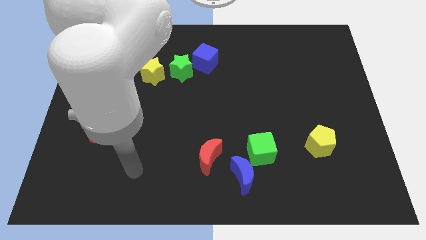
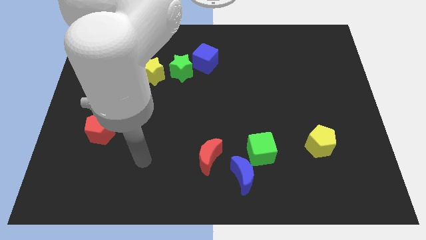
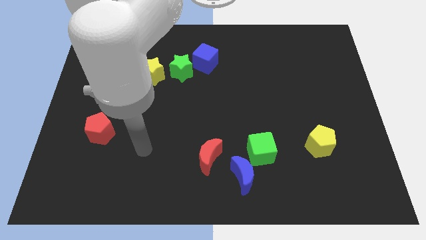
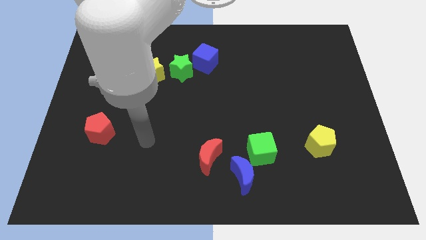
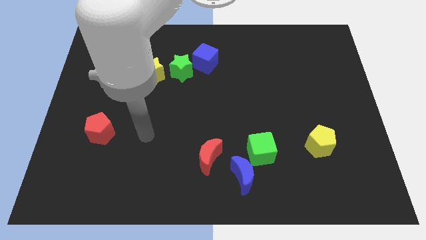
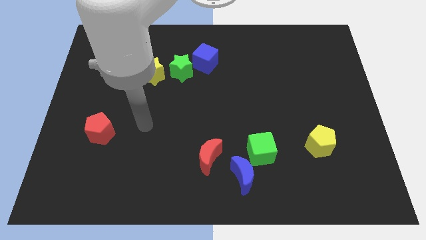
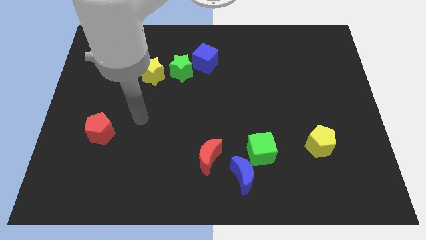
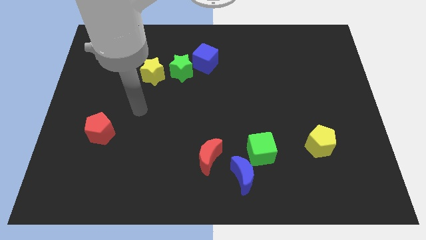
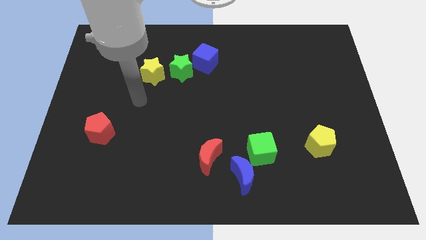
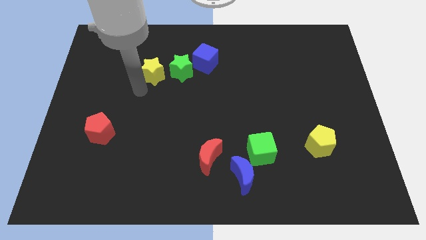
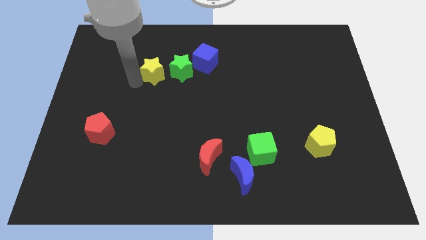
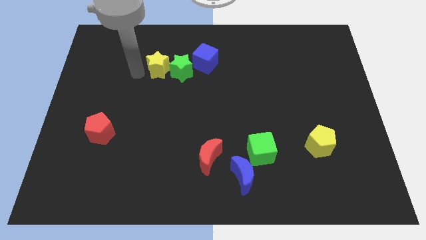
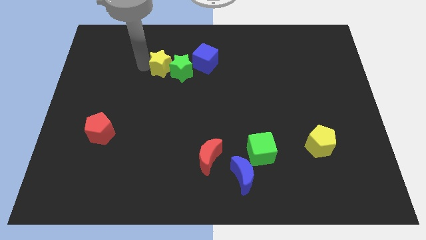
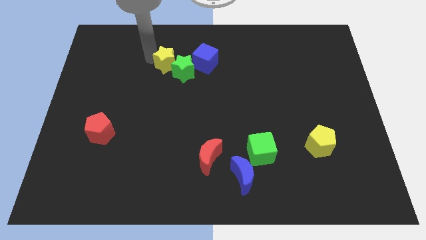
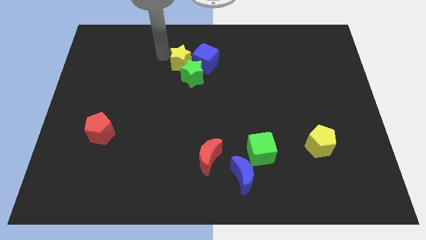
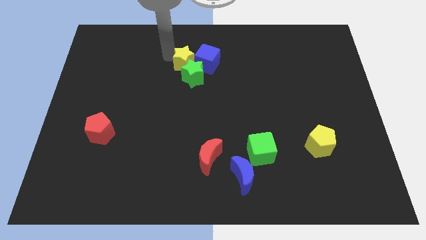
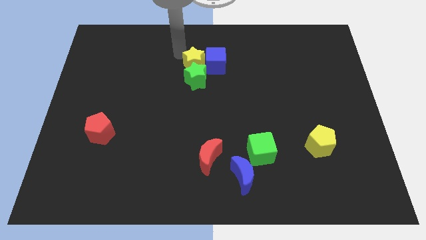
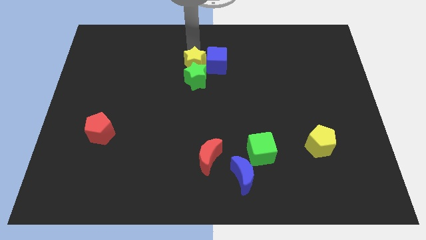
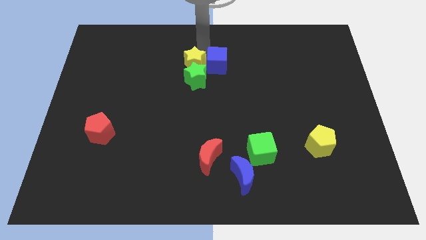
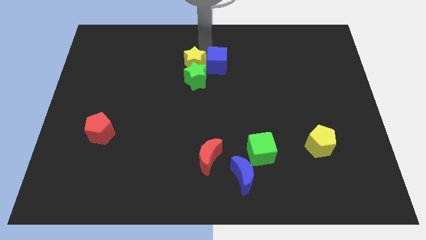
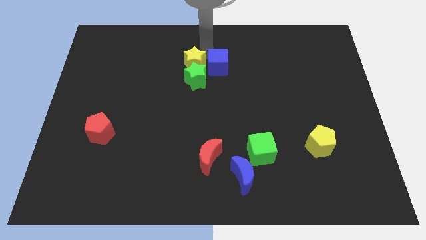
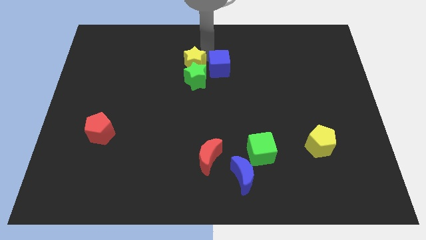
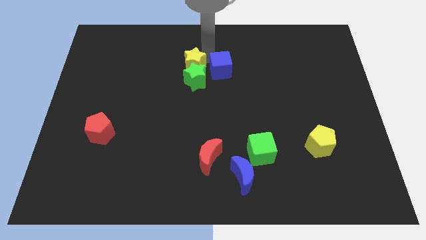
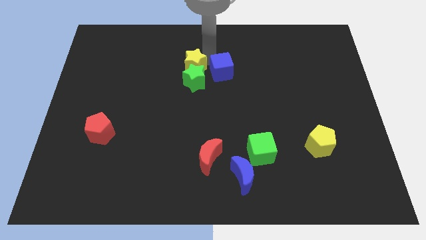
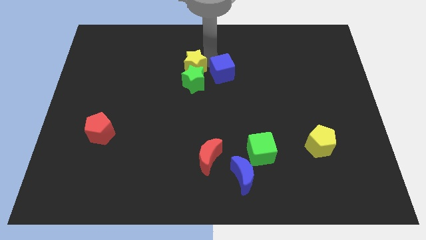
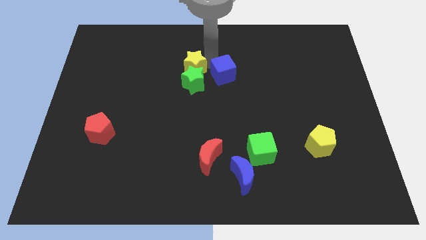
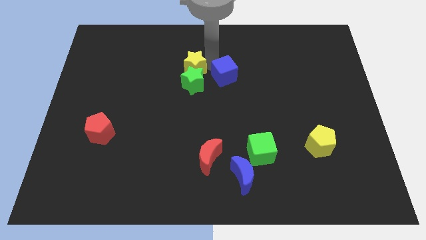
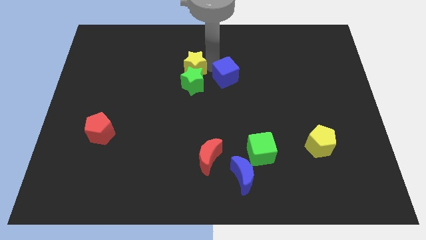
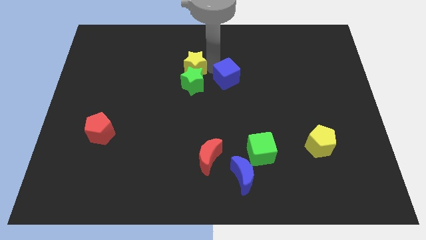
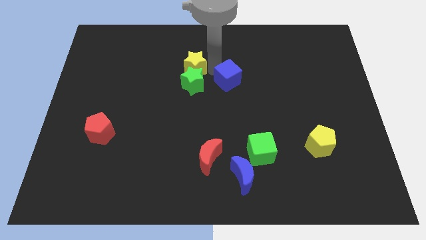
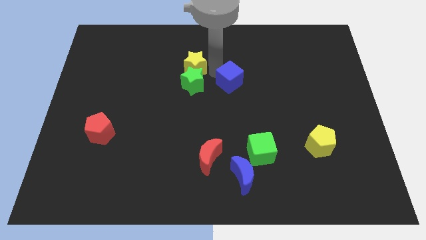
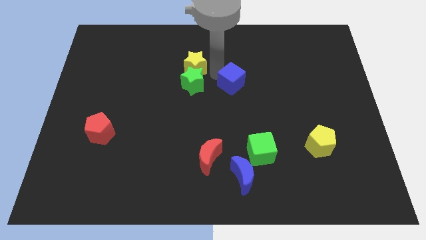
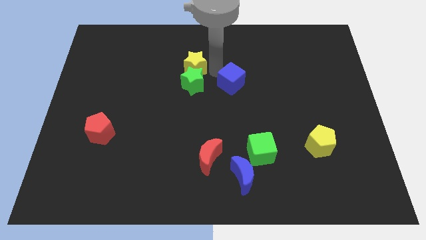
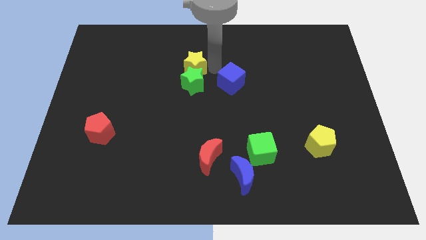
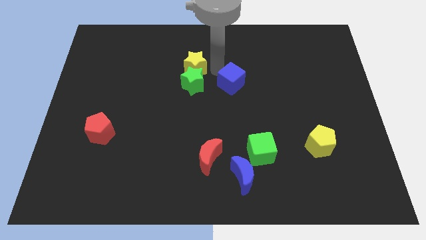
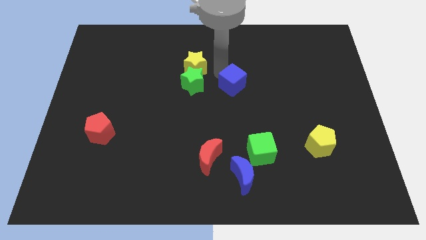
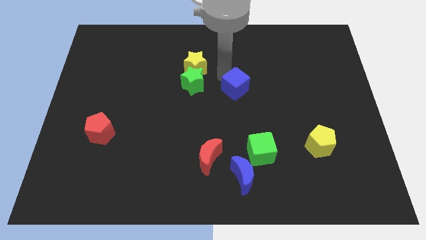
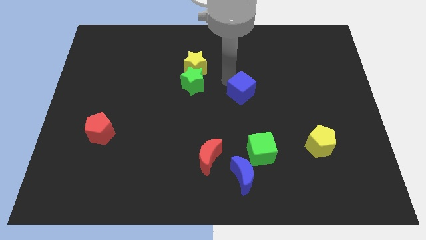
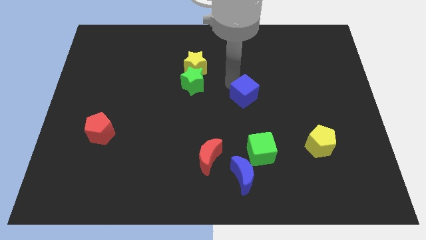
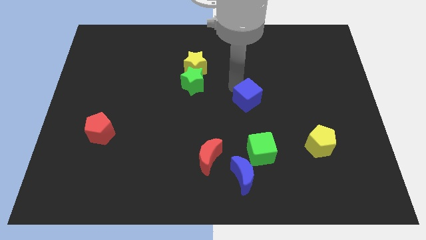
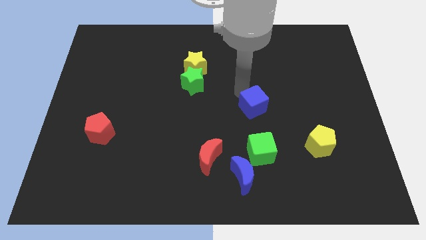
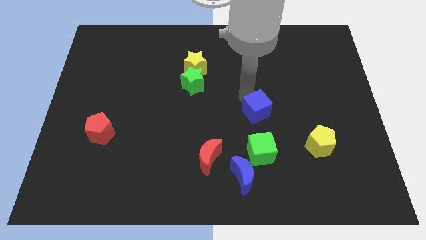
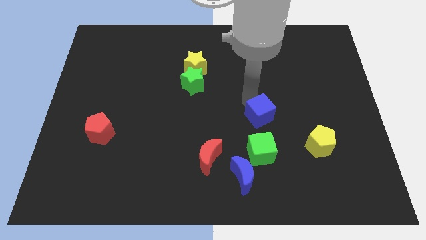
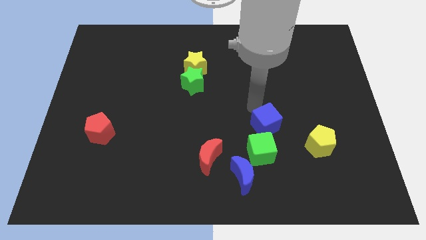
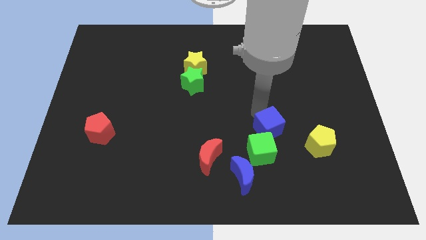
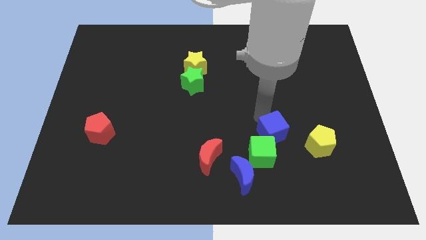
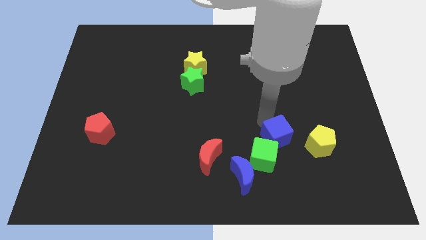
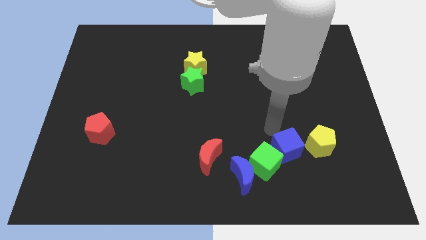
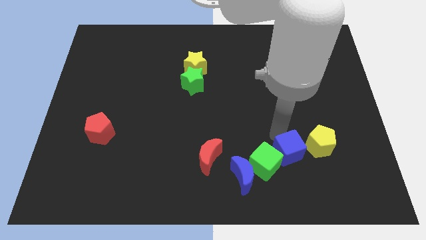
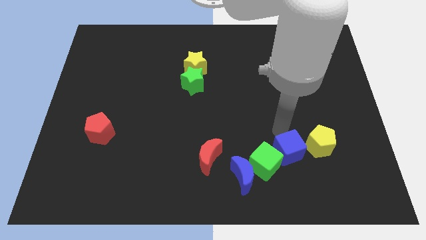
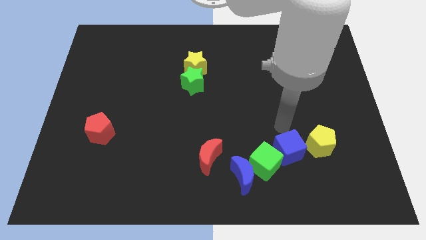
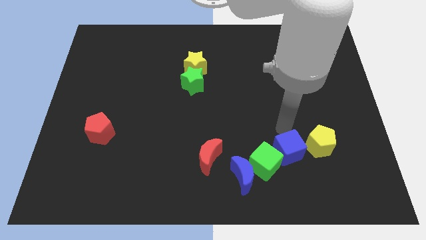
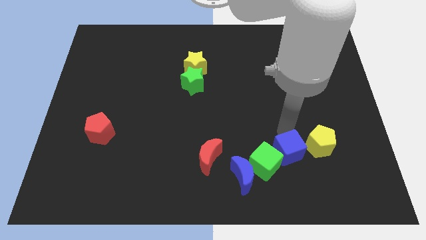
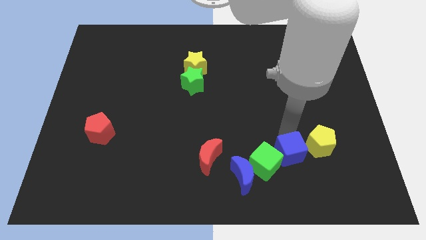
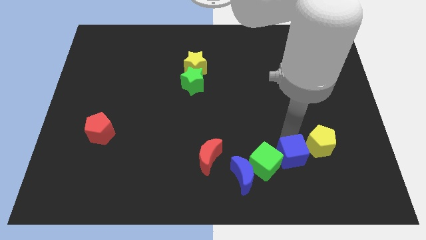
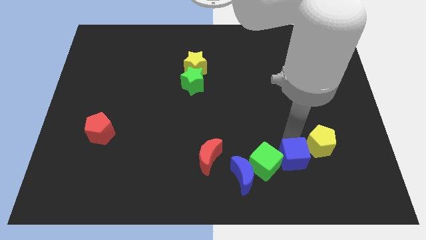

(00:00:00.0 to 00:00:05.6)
put the blue cube just right of the blue moon

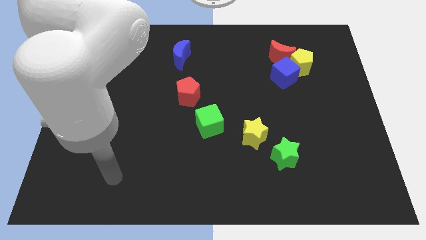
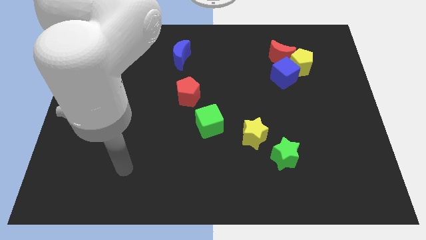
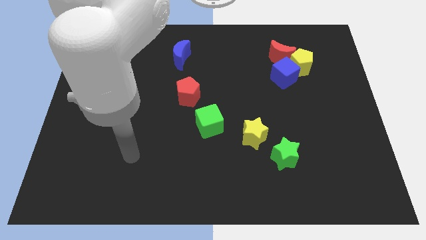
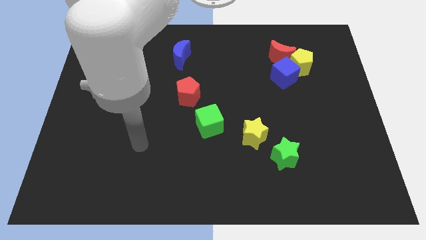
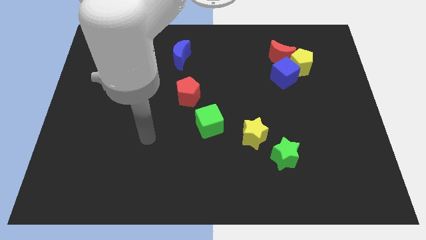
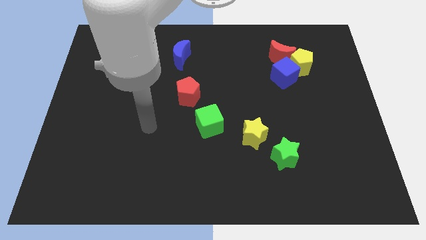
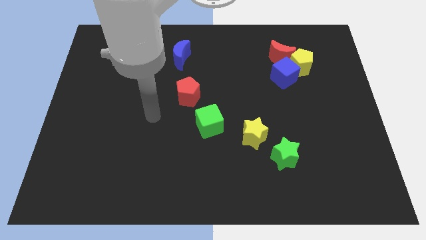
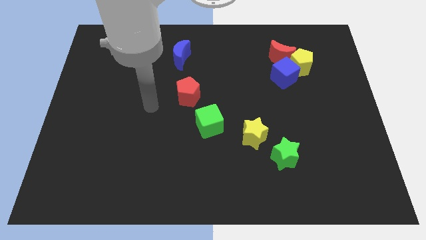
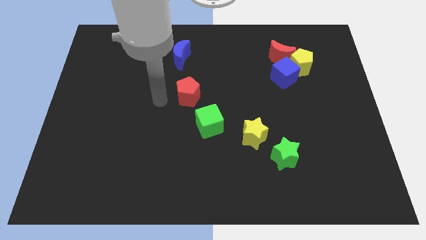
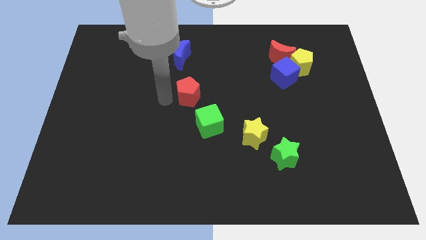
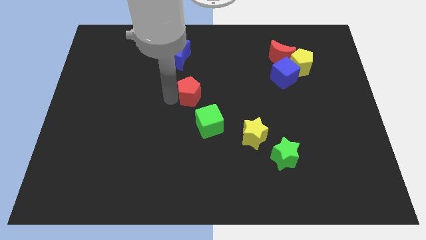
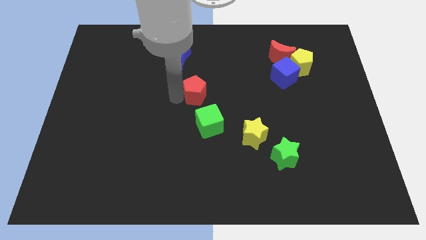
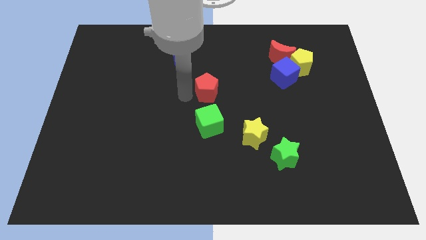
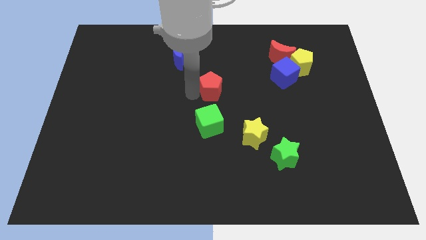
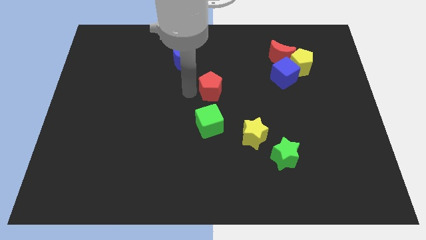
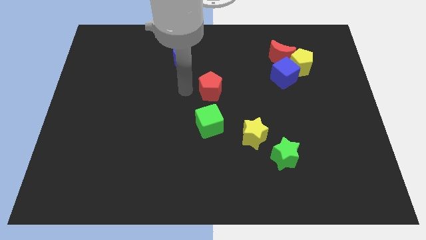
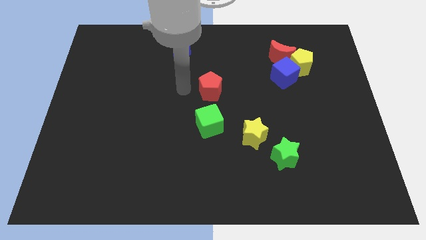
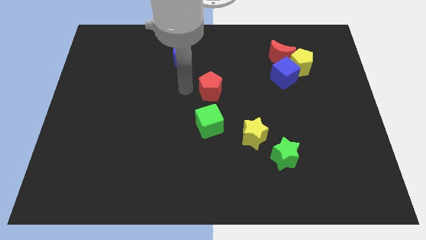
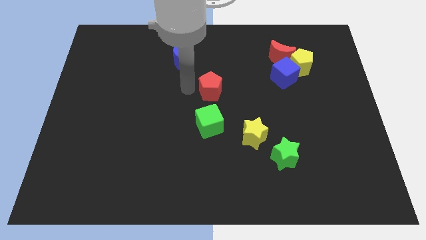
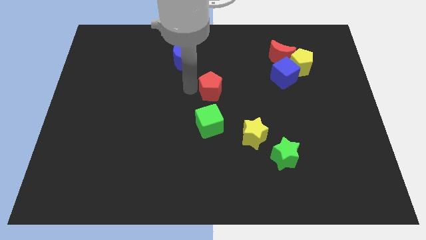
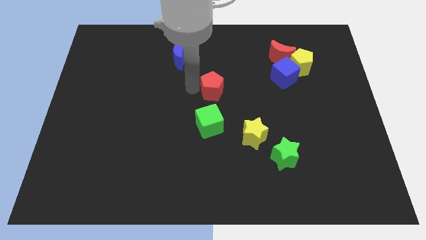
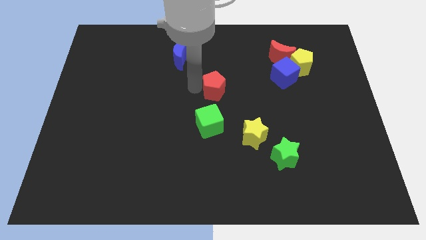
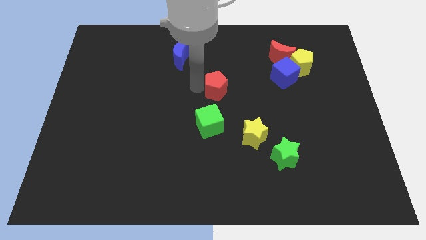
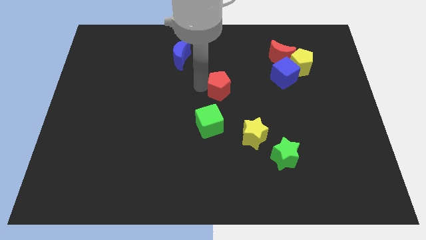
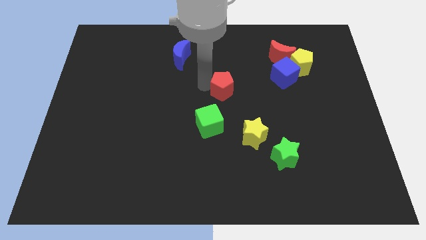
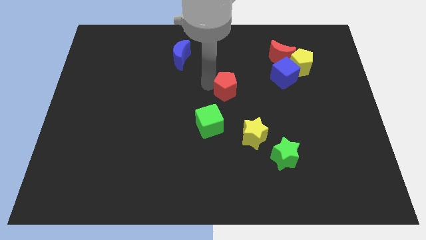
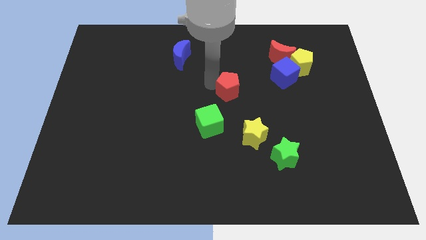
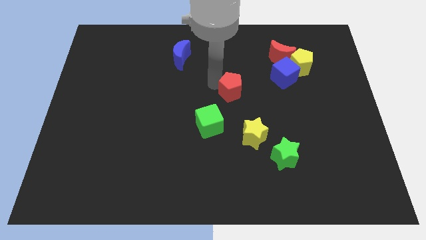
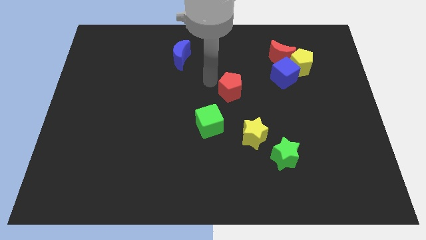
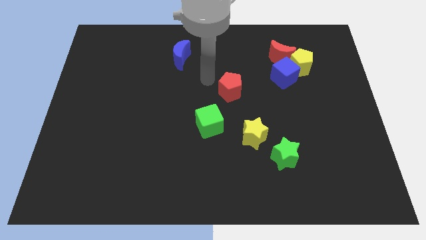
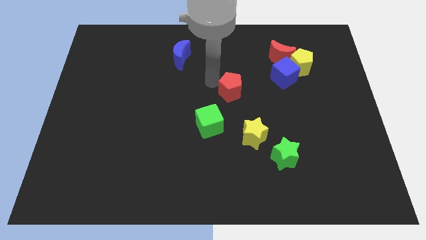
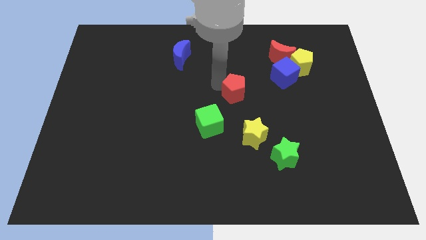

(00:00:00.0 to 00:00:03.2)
push the red pentagon above the yellow star
